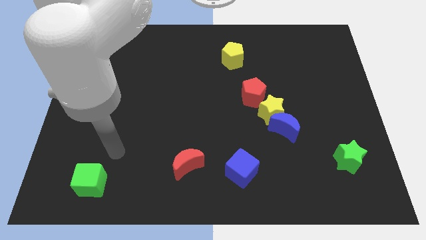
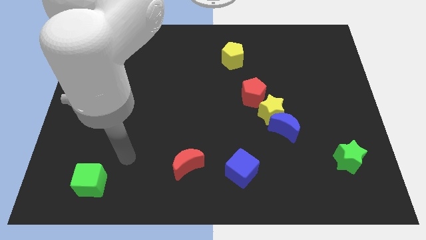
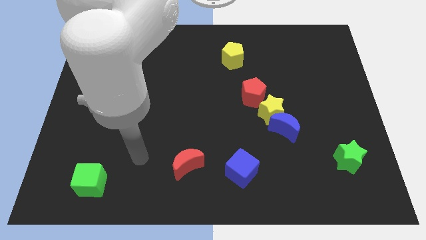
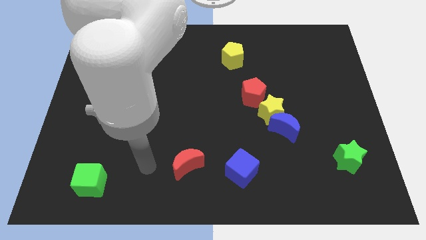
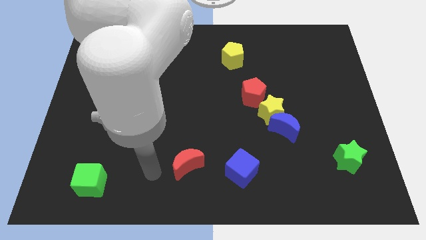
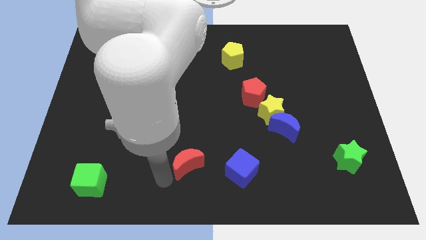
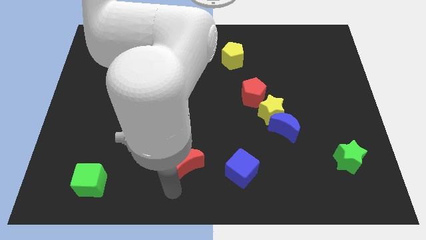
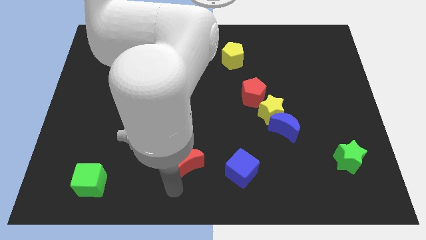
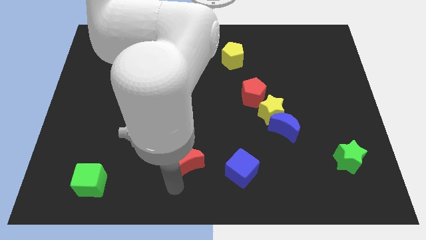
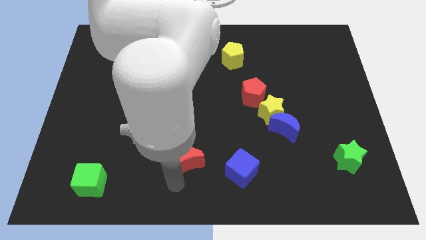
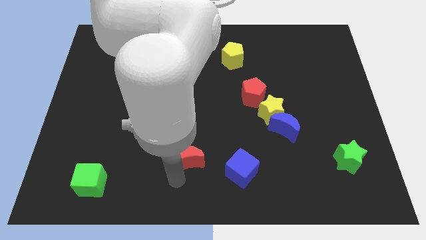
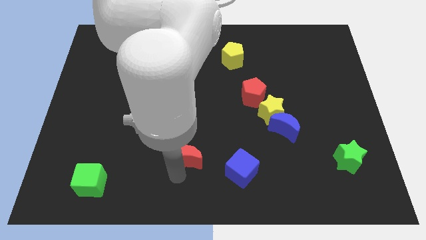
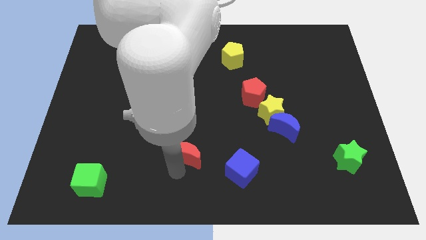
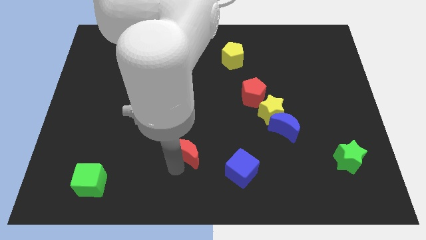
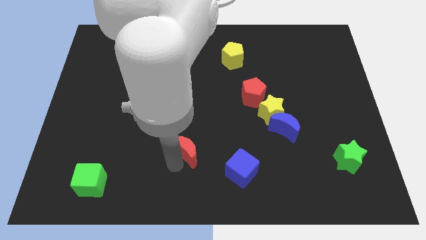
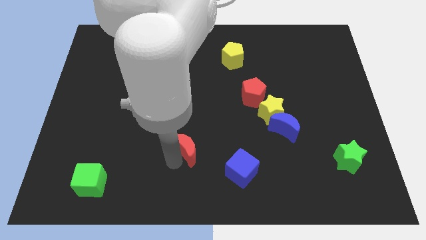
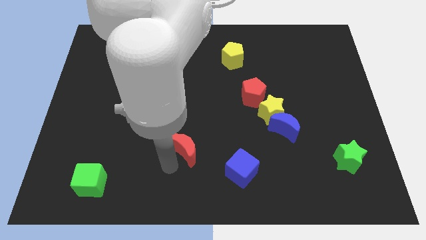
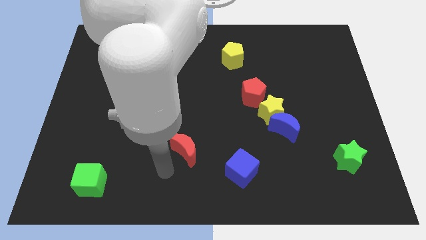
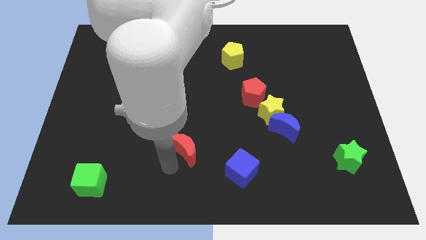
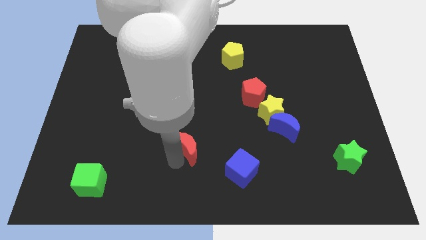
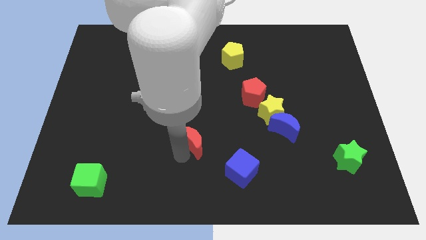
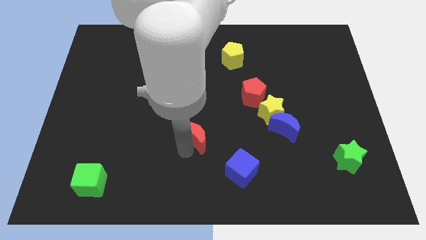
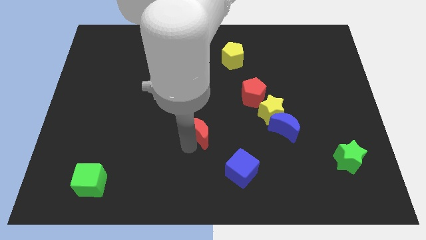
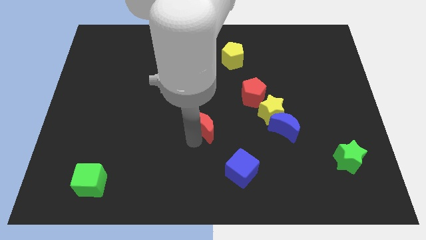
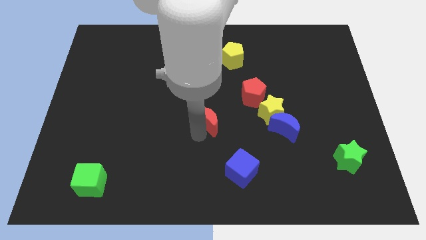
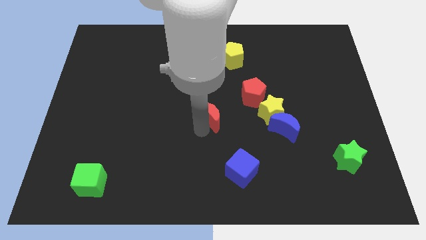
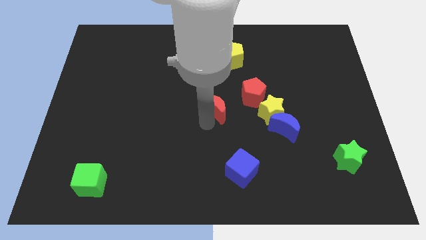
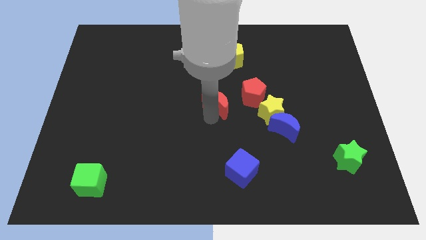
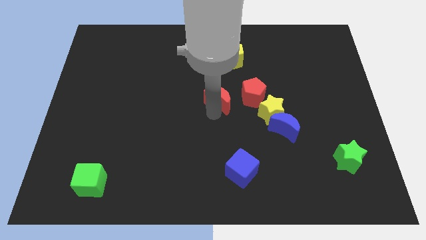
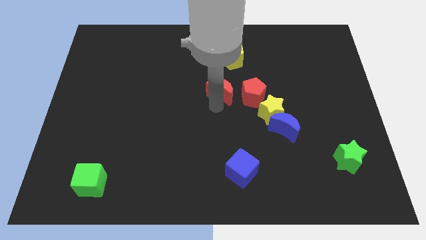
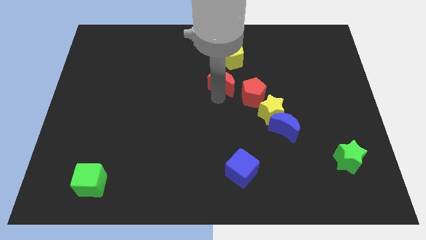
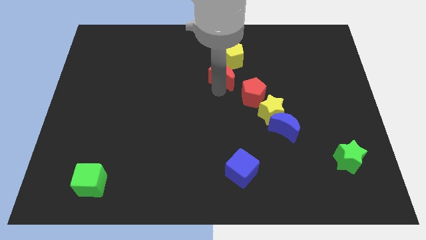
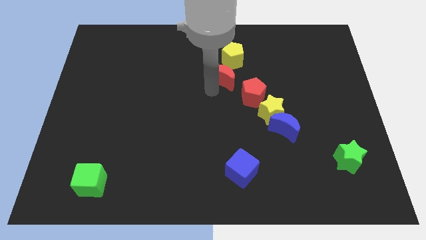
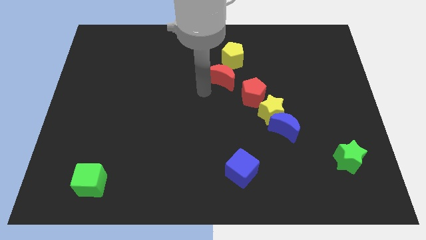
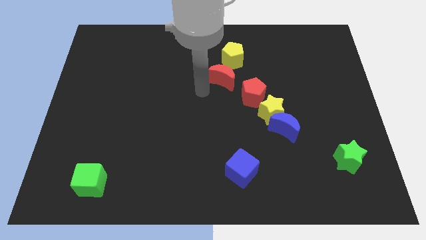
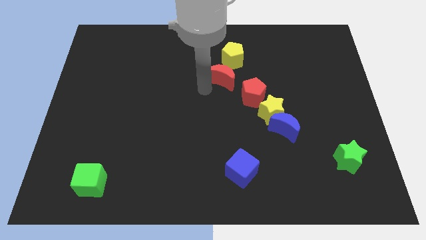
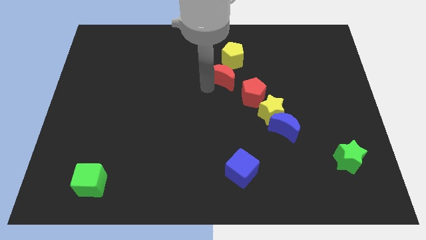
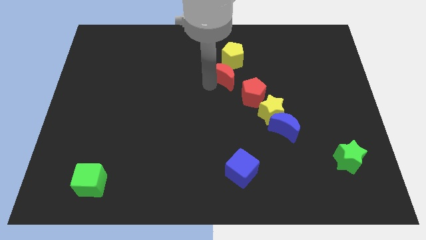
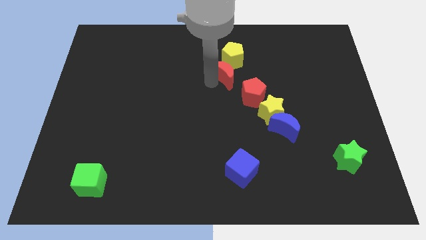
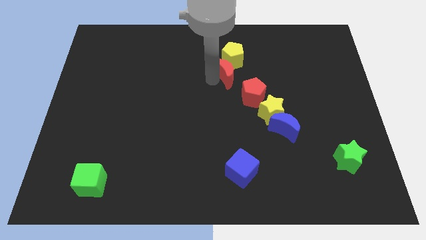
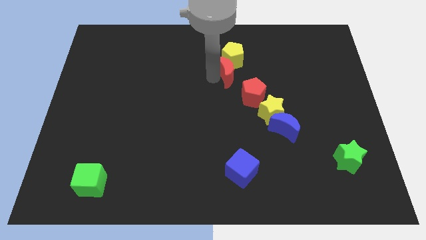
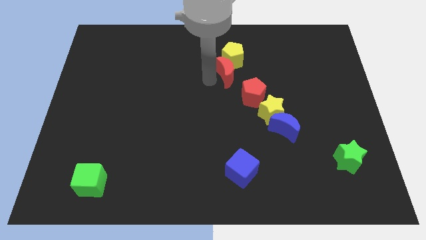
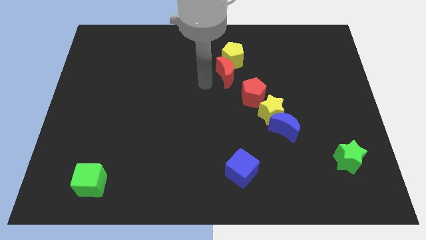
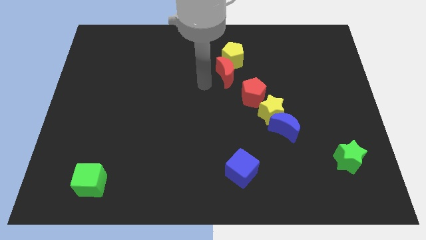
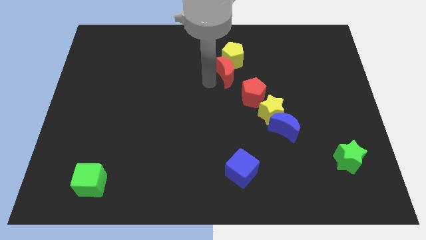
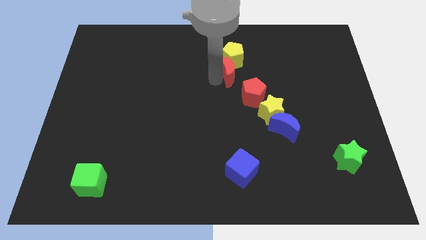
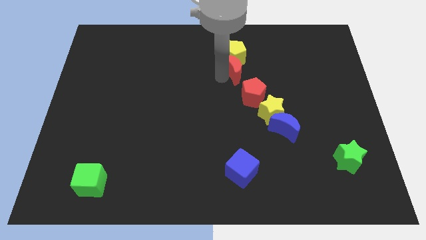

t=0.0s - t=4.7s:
put the red moon to the top side of the red pentagon

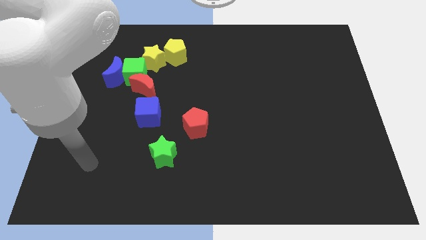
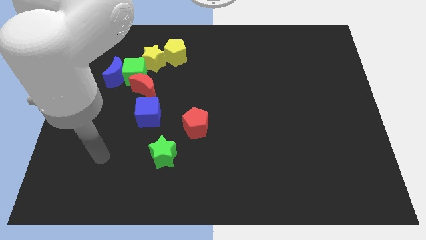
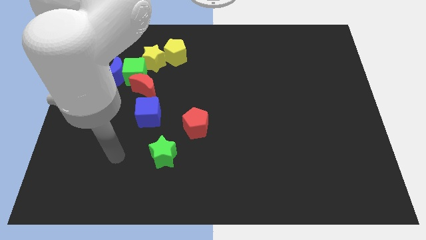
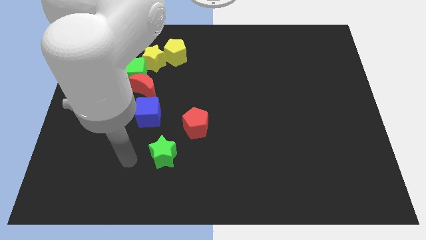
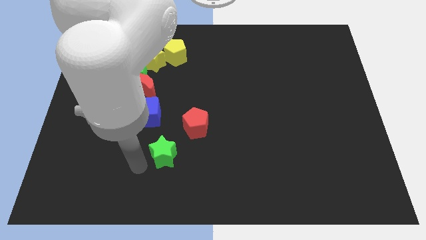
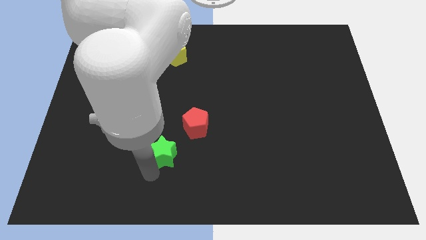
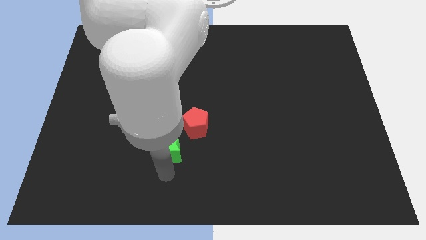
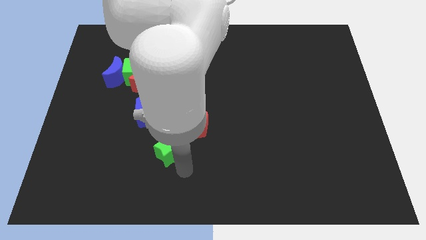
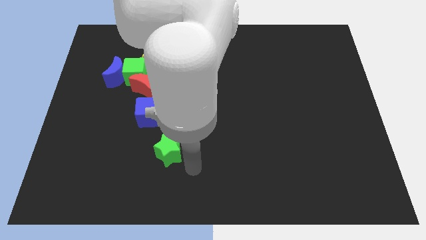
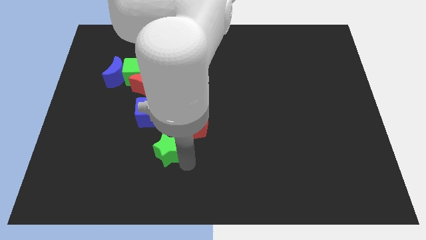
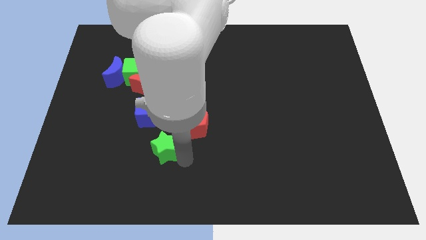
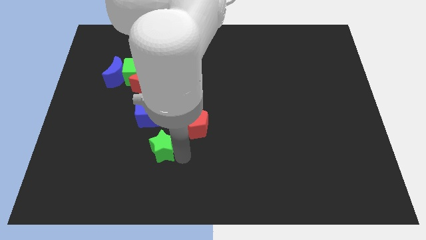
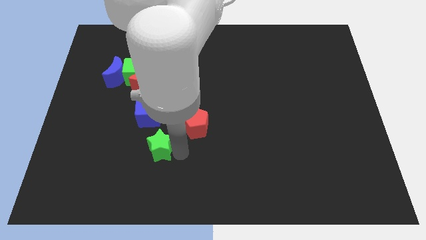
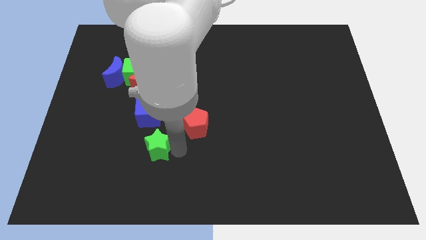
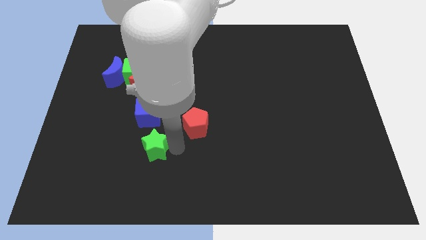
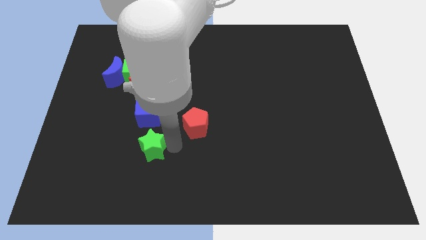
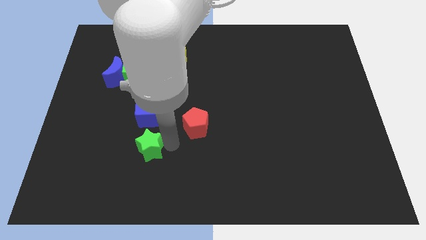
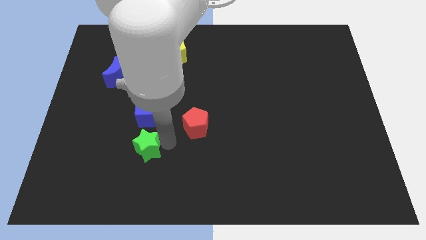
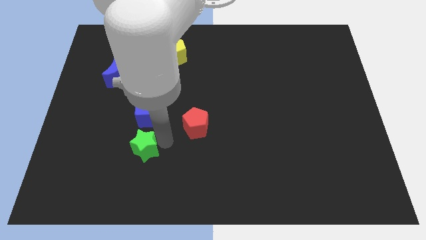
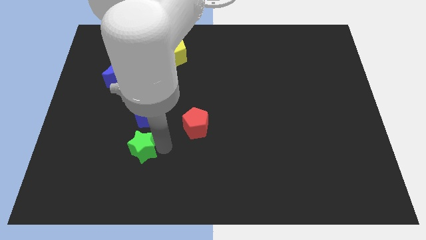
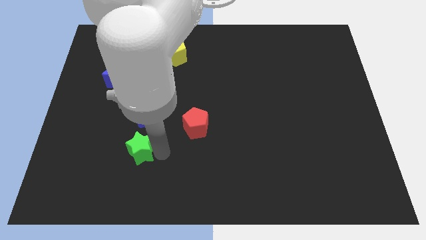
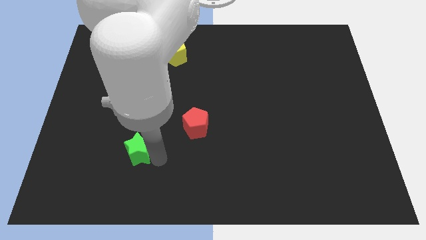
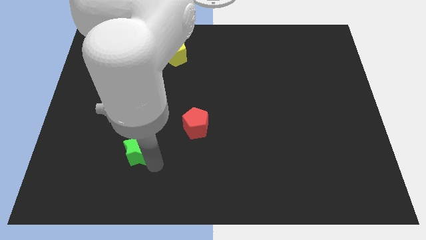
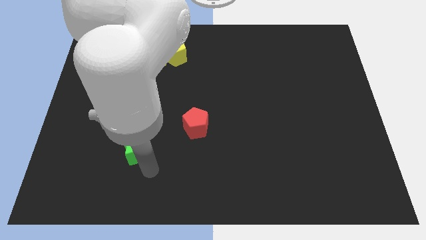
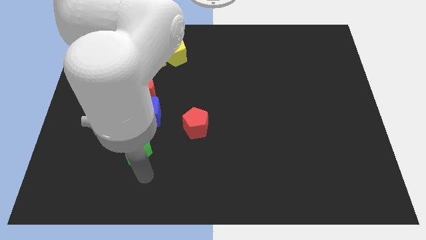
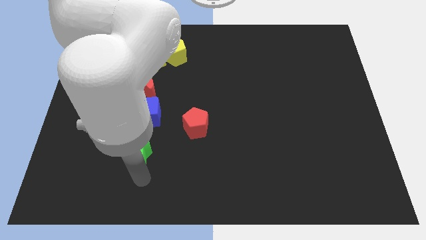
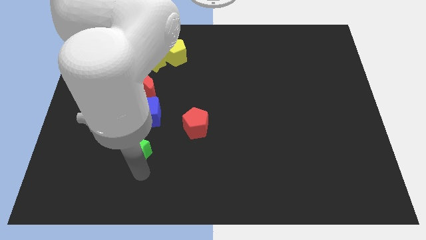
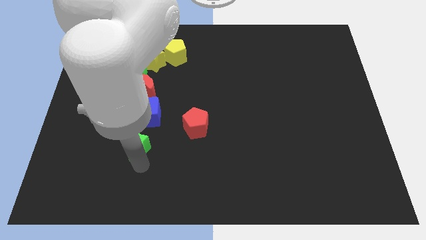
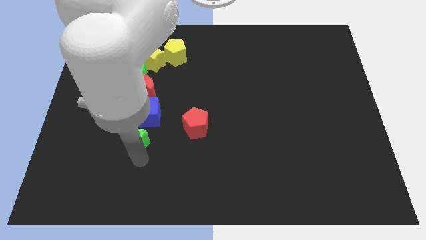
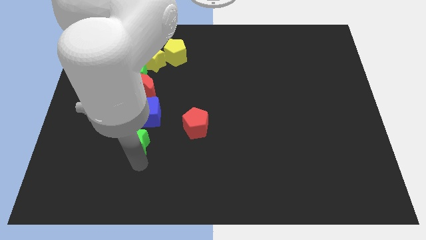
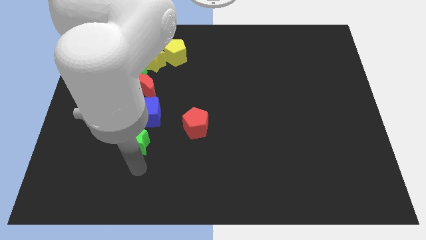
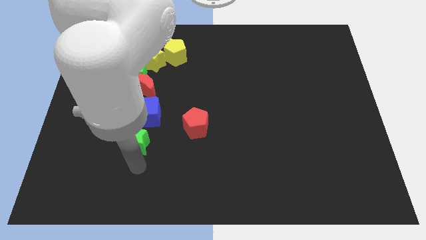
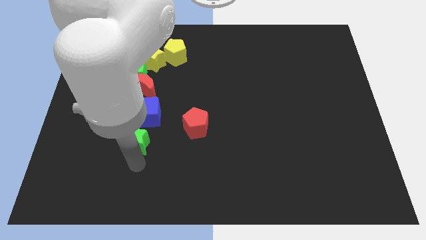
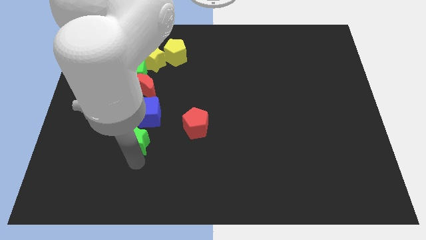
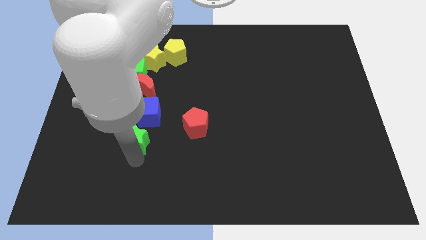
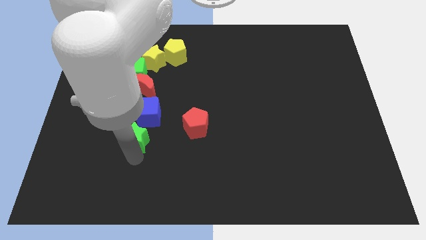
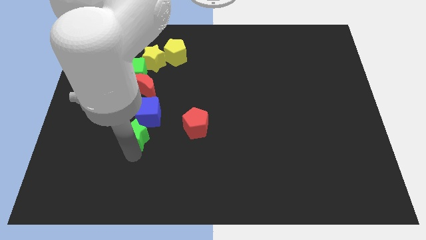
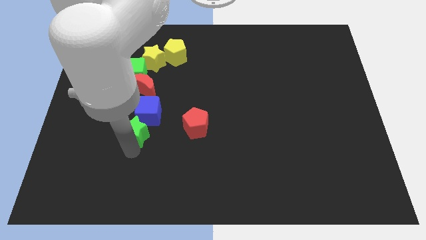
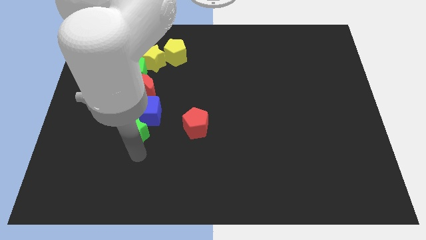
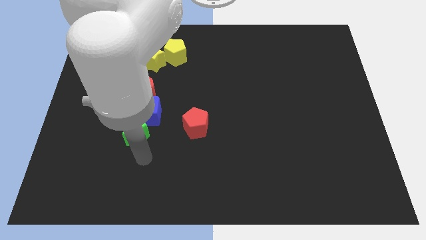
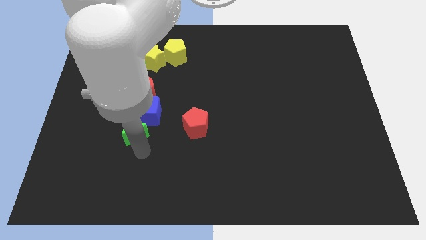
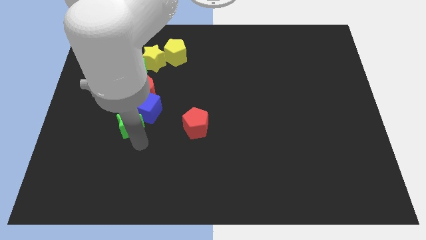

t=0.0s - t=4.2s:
move the green star to the bottom side of the green cube
